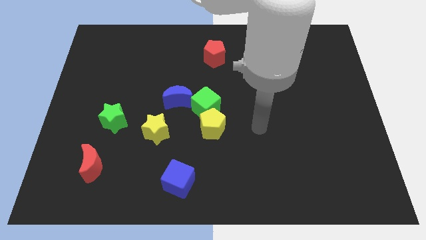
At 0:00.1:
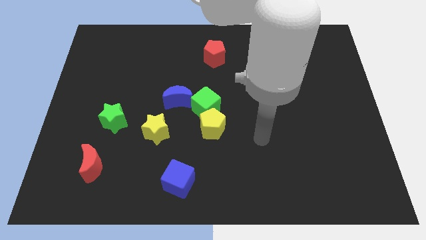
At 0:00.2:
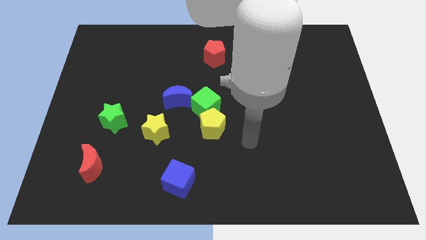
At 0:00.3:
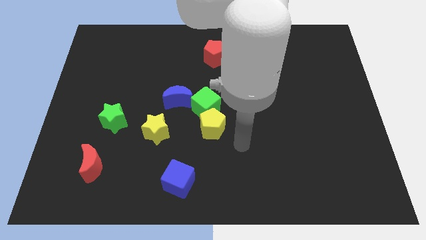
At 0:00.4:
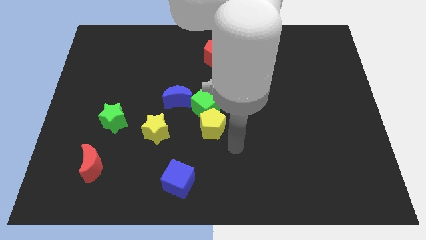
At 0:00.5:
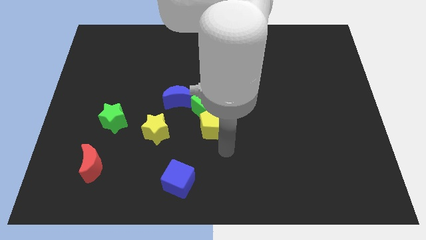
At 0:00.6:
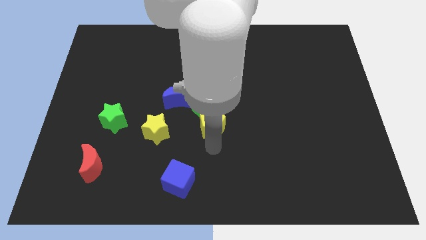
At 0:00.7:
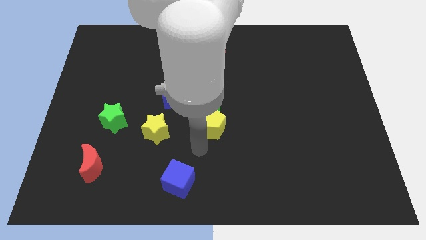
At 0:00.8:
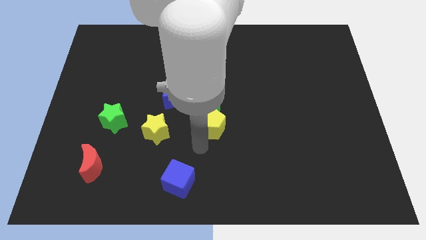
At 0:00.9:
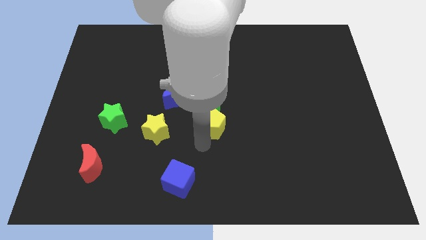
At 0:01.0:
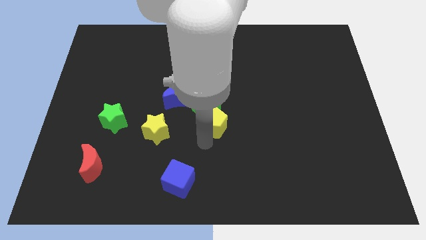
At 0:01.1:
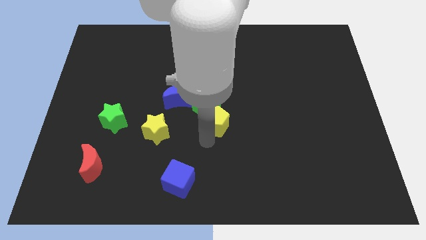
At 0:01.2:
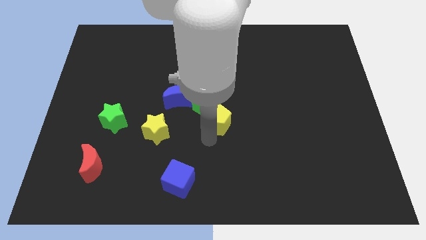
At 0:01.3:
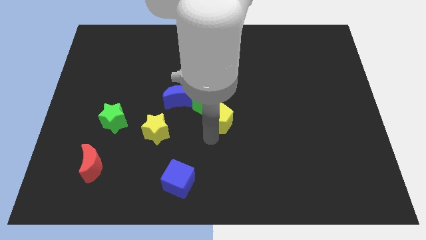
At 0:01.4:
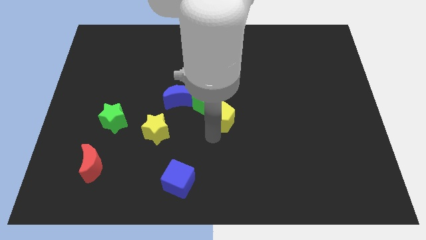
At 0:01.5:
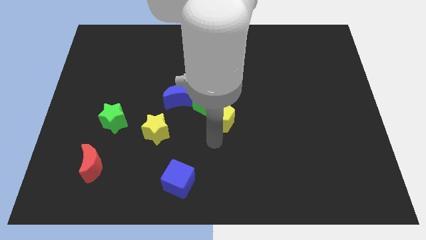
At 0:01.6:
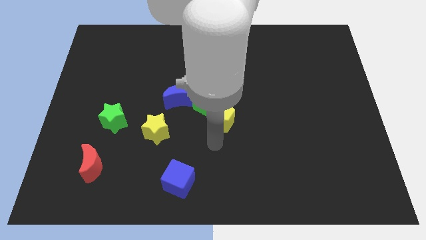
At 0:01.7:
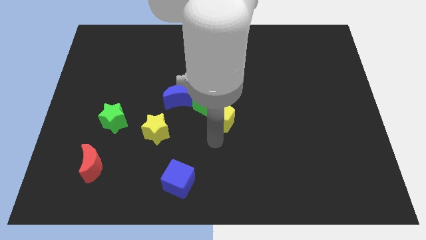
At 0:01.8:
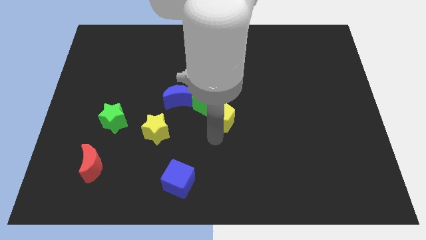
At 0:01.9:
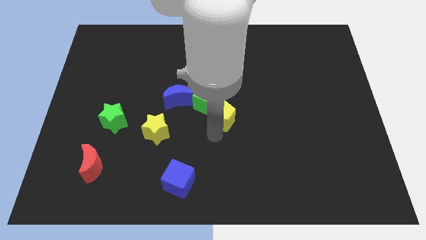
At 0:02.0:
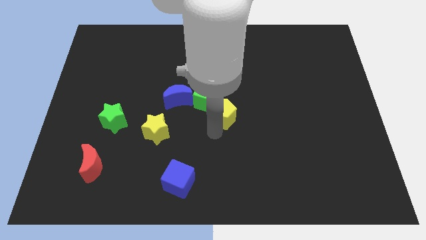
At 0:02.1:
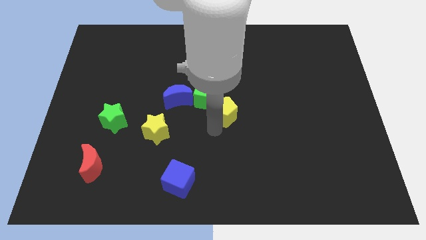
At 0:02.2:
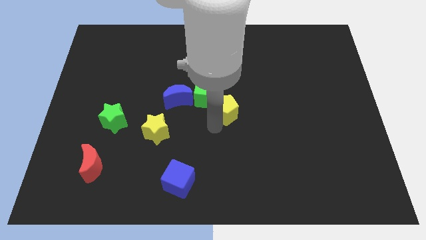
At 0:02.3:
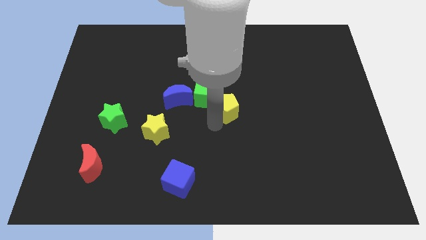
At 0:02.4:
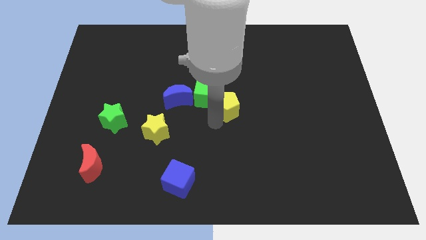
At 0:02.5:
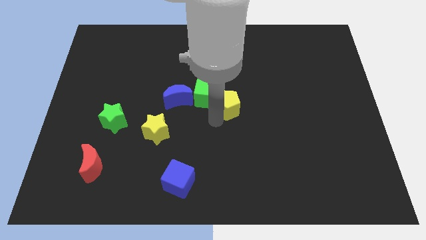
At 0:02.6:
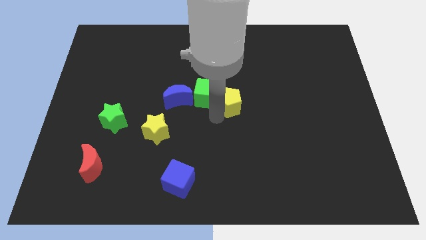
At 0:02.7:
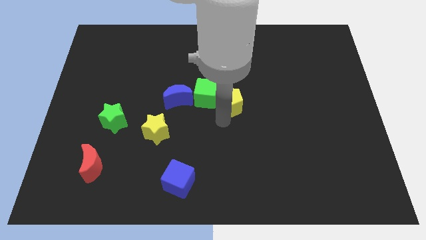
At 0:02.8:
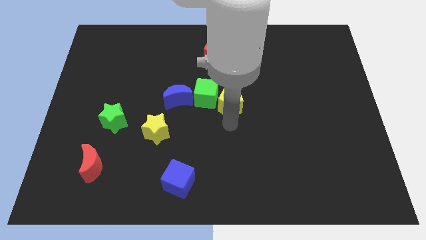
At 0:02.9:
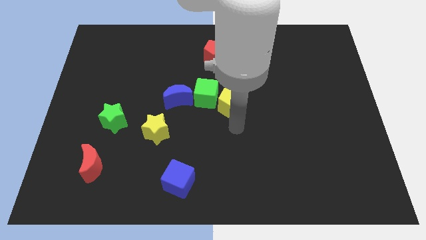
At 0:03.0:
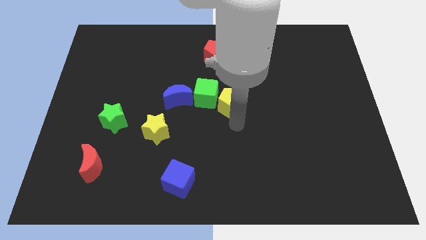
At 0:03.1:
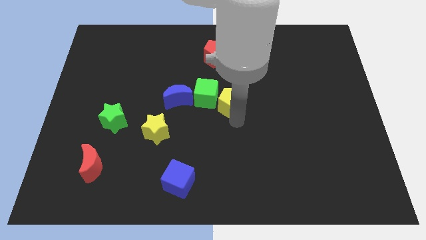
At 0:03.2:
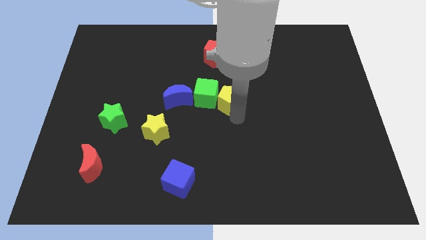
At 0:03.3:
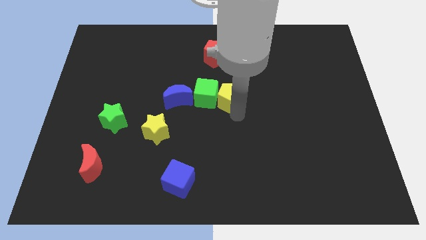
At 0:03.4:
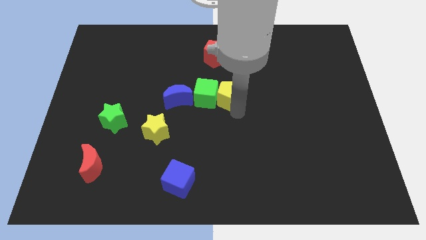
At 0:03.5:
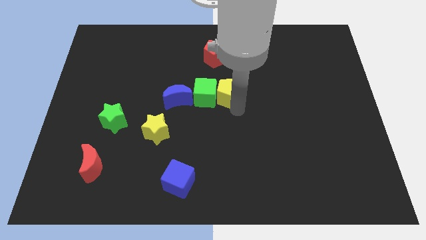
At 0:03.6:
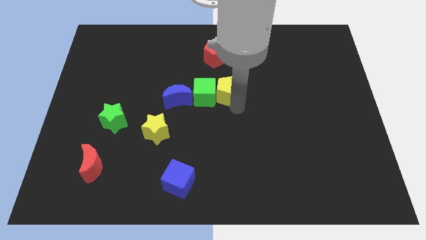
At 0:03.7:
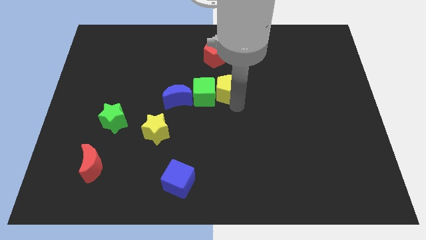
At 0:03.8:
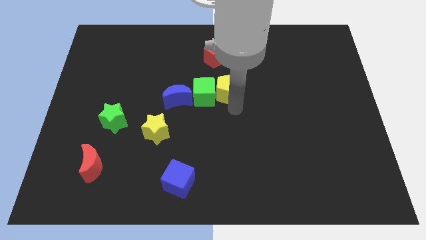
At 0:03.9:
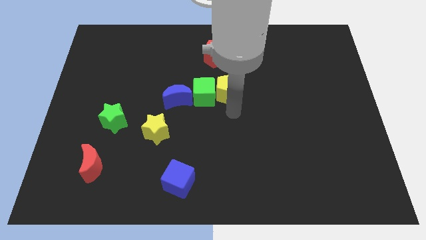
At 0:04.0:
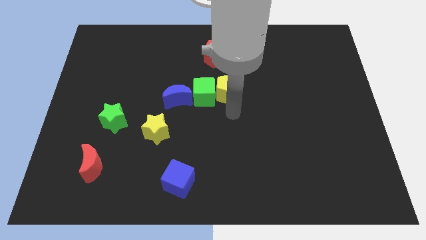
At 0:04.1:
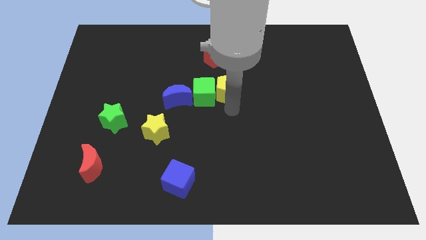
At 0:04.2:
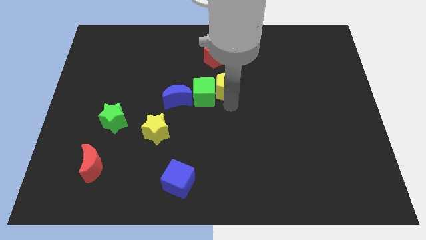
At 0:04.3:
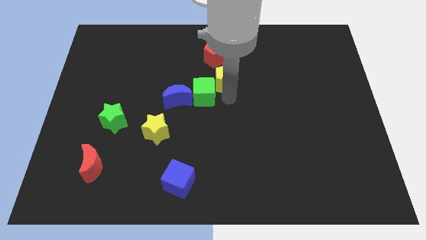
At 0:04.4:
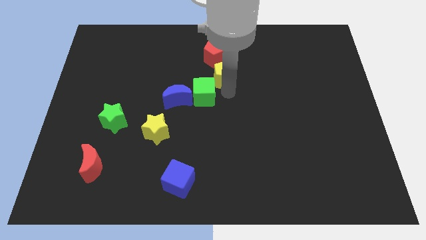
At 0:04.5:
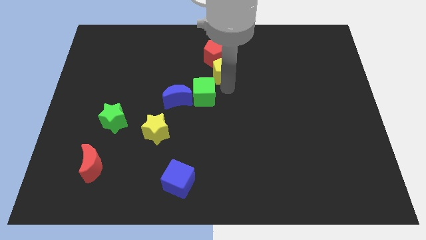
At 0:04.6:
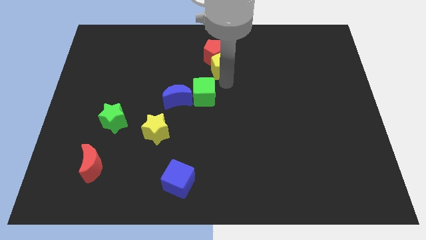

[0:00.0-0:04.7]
move the yellow pentagon towards the red pentagon

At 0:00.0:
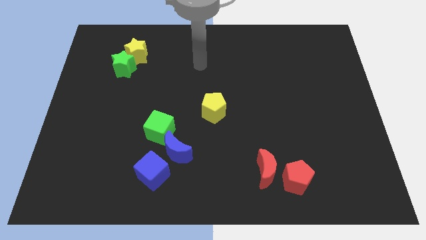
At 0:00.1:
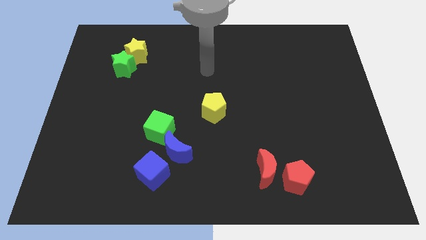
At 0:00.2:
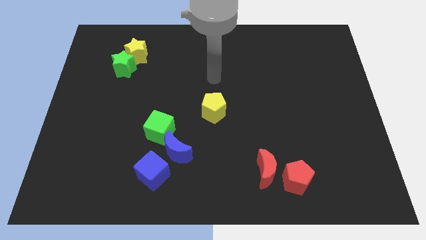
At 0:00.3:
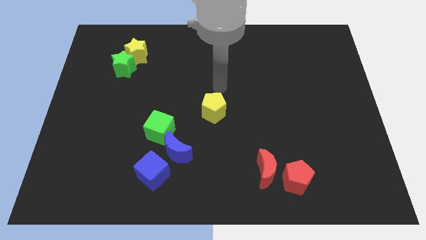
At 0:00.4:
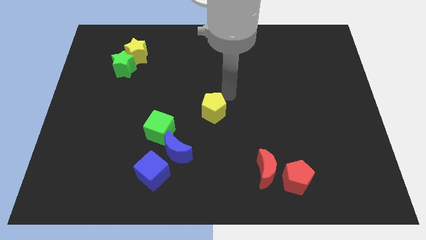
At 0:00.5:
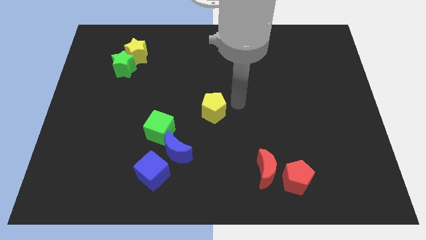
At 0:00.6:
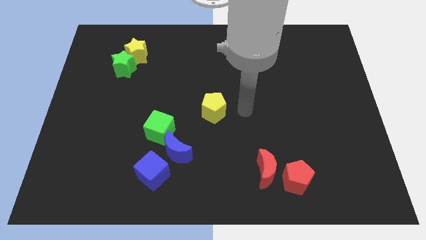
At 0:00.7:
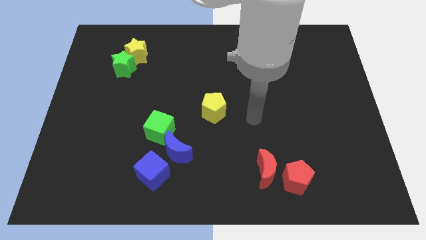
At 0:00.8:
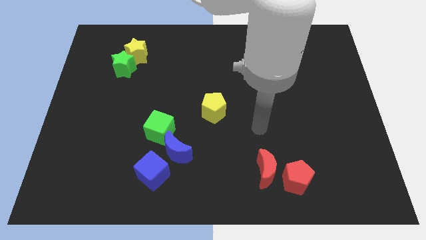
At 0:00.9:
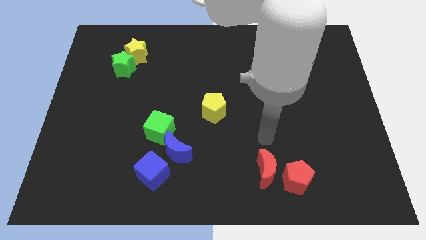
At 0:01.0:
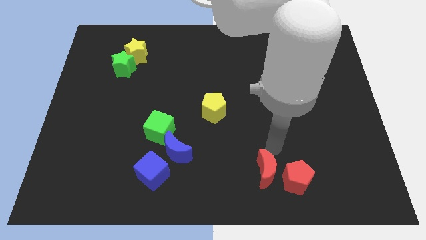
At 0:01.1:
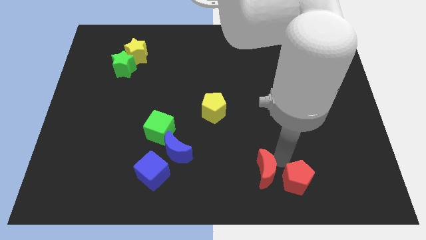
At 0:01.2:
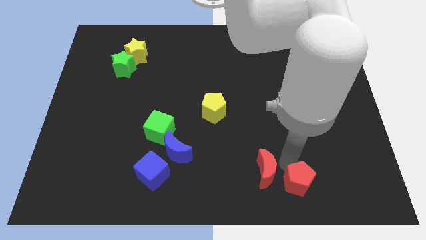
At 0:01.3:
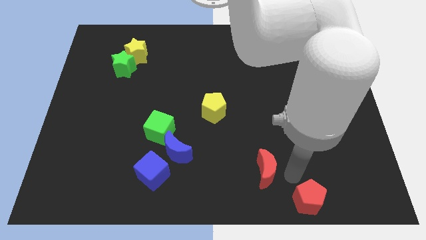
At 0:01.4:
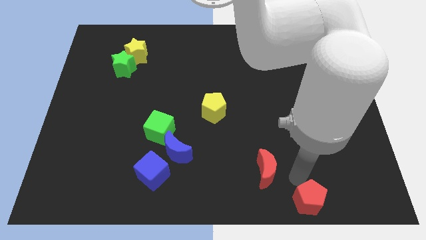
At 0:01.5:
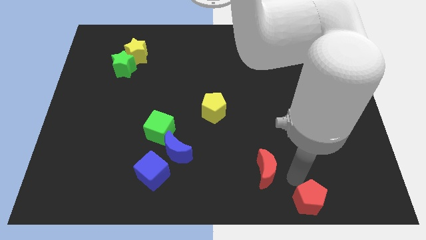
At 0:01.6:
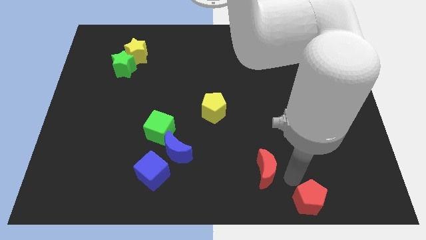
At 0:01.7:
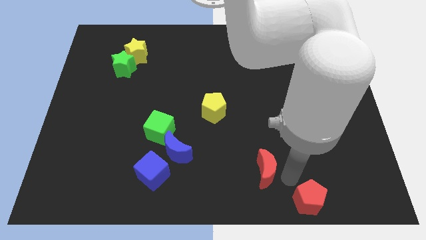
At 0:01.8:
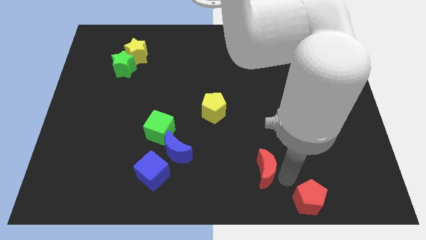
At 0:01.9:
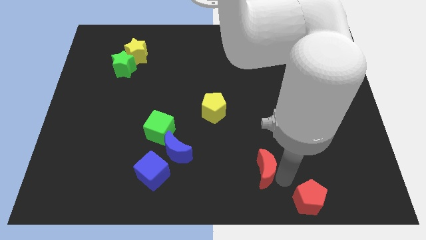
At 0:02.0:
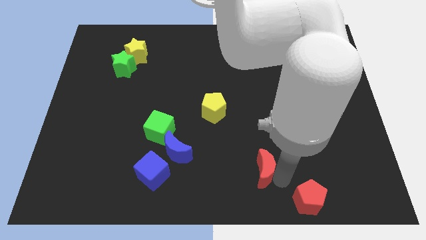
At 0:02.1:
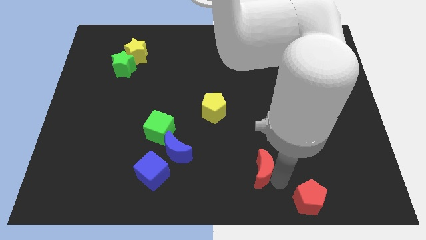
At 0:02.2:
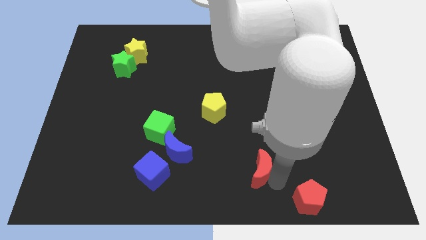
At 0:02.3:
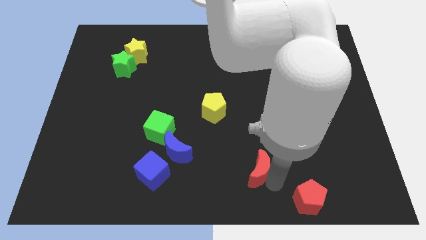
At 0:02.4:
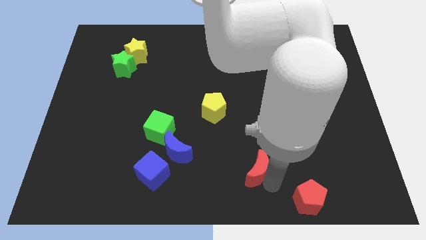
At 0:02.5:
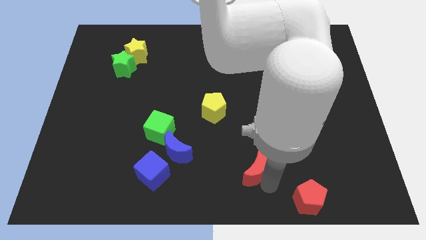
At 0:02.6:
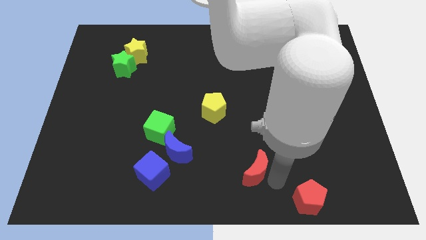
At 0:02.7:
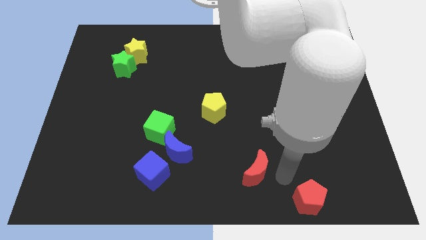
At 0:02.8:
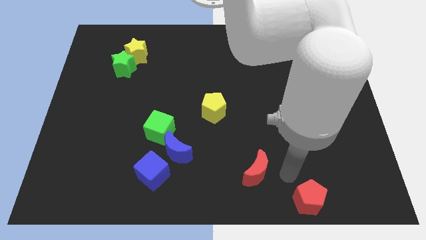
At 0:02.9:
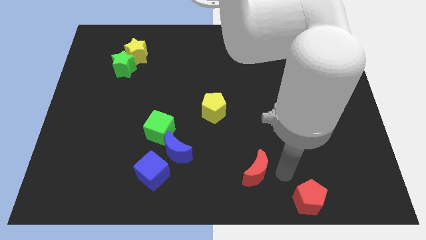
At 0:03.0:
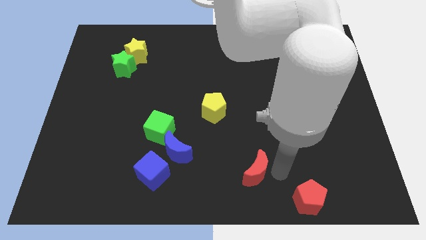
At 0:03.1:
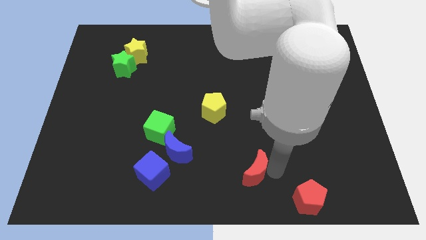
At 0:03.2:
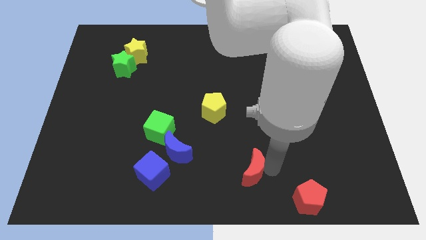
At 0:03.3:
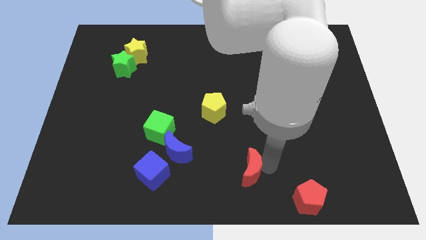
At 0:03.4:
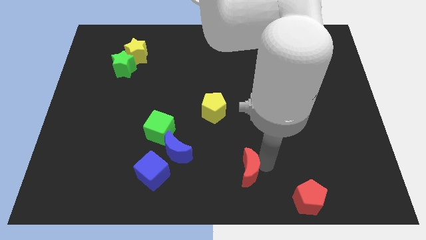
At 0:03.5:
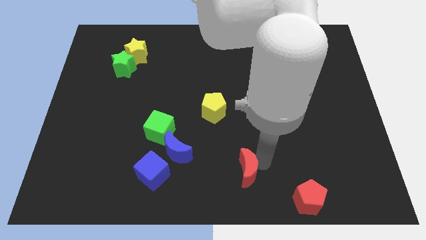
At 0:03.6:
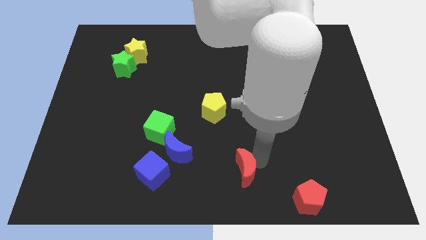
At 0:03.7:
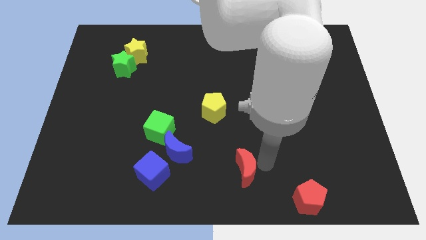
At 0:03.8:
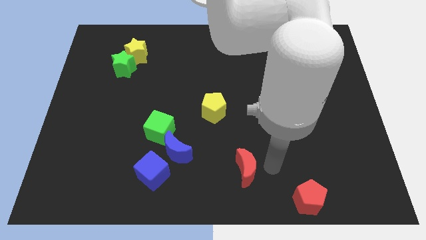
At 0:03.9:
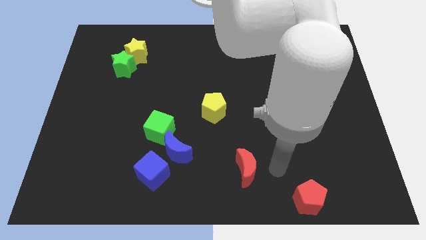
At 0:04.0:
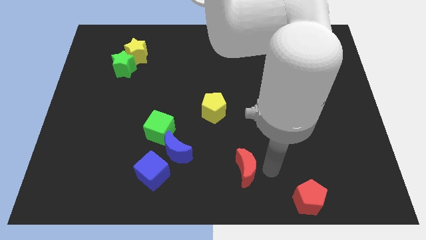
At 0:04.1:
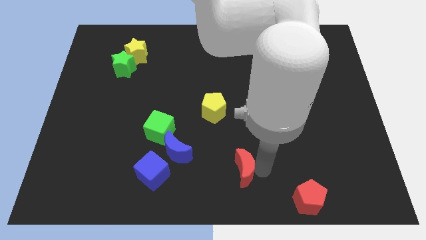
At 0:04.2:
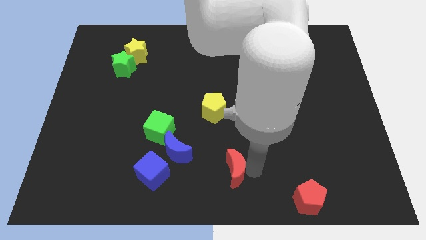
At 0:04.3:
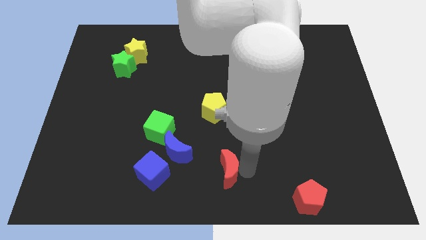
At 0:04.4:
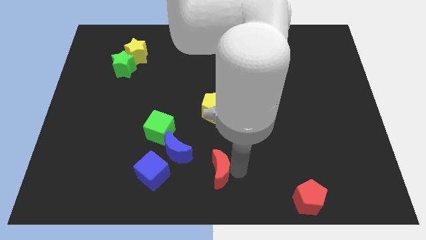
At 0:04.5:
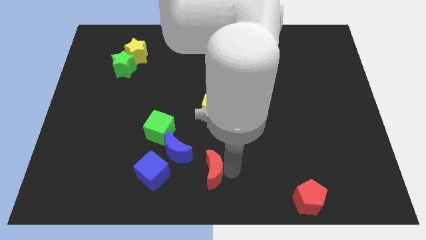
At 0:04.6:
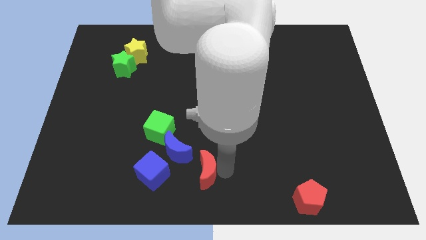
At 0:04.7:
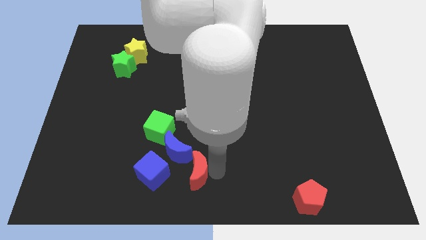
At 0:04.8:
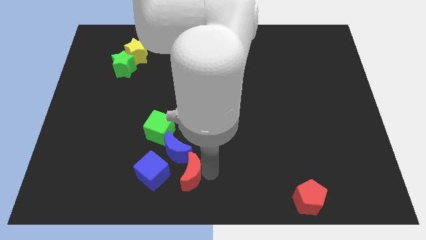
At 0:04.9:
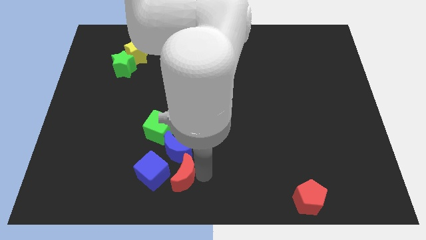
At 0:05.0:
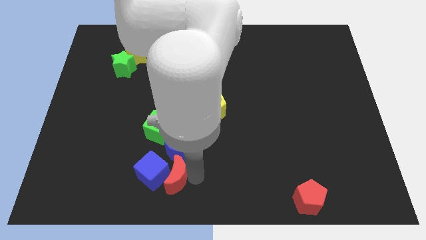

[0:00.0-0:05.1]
put the red moon close to the blue cube
